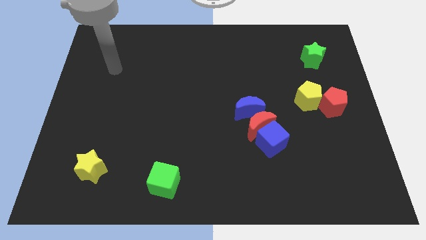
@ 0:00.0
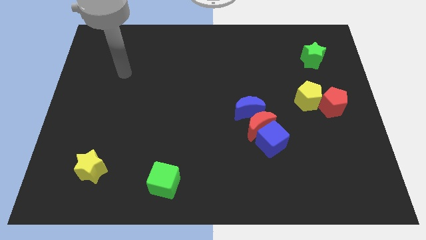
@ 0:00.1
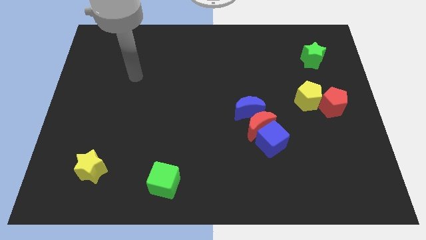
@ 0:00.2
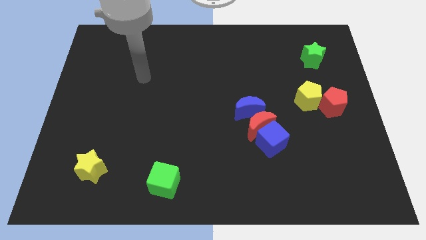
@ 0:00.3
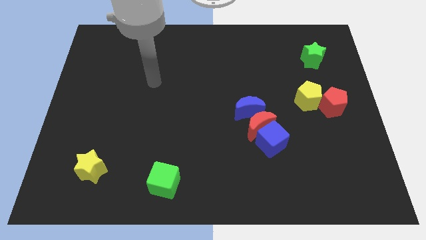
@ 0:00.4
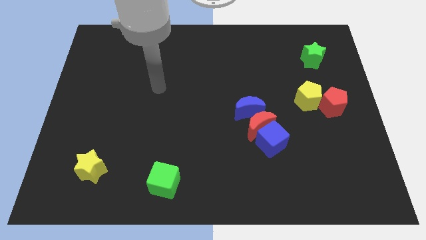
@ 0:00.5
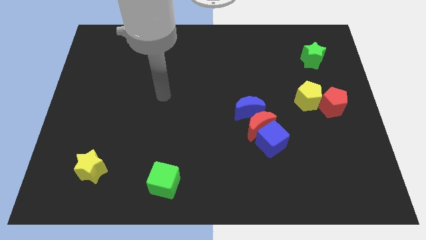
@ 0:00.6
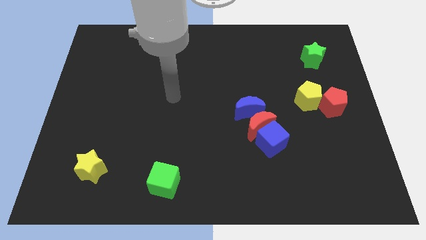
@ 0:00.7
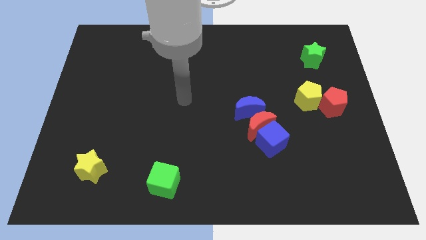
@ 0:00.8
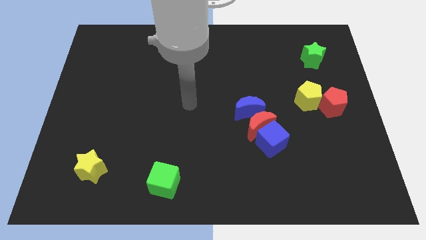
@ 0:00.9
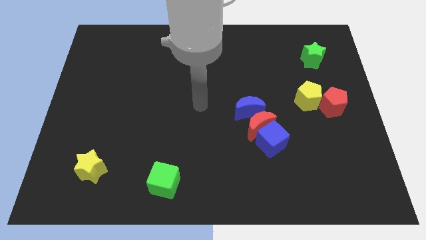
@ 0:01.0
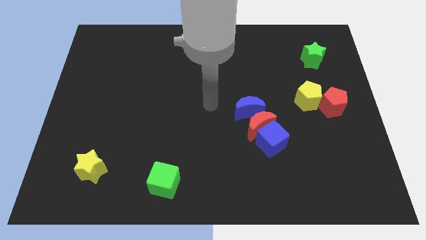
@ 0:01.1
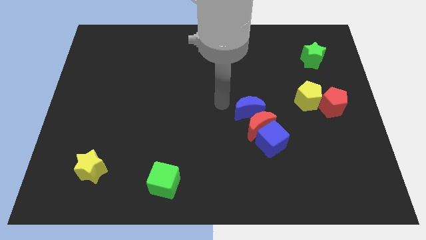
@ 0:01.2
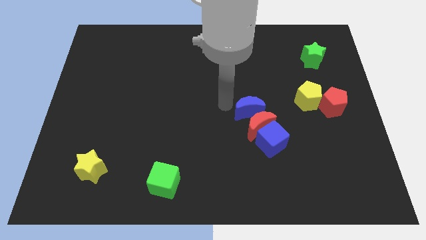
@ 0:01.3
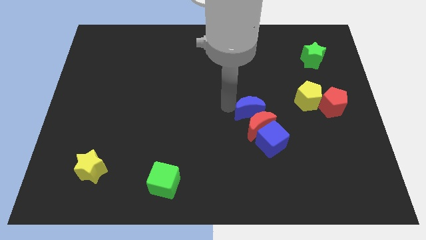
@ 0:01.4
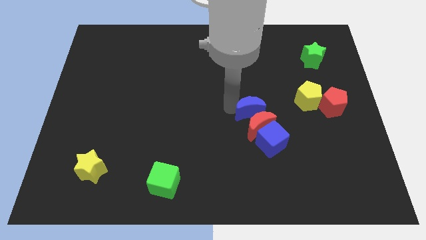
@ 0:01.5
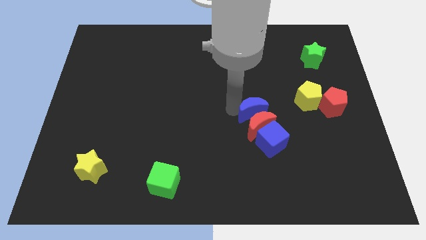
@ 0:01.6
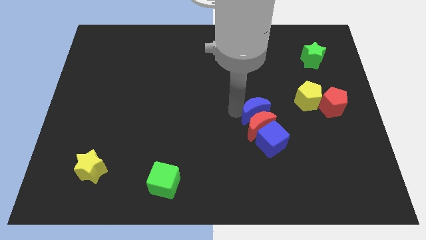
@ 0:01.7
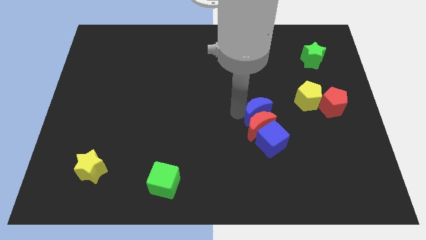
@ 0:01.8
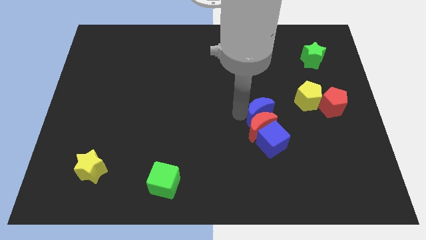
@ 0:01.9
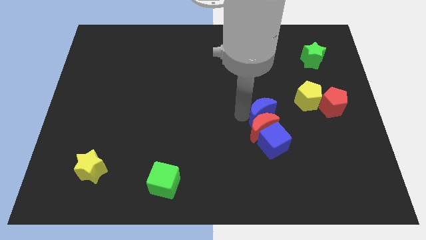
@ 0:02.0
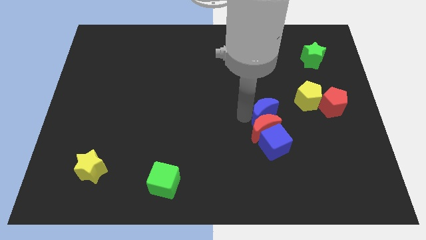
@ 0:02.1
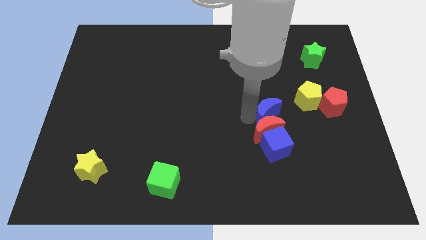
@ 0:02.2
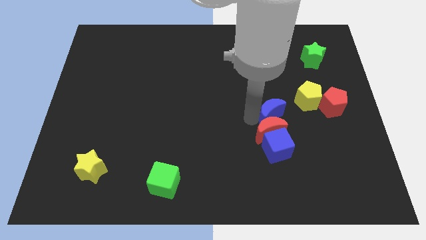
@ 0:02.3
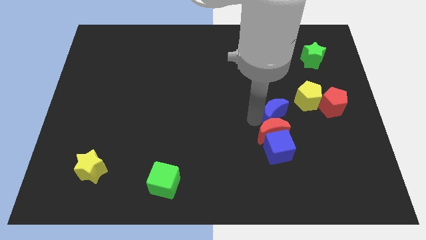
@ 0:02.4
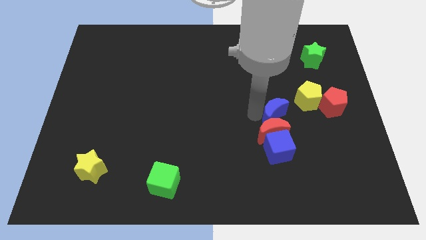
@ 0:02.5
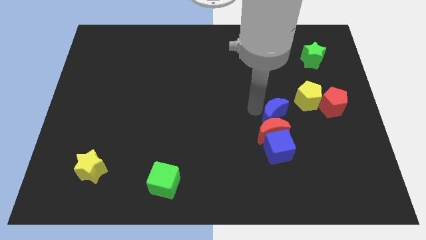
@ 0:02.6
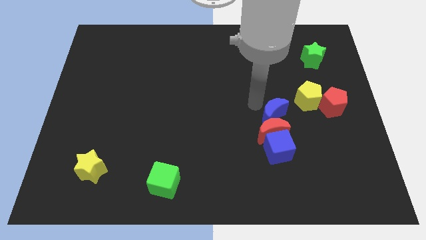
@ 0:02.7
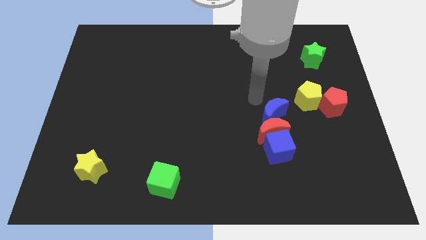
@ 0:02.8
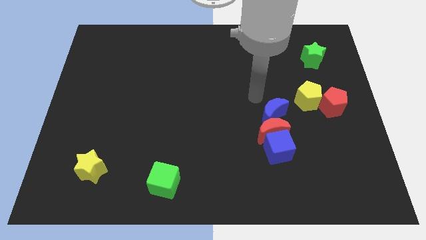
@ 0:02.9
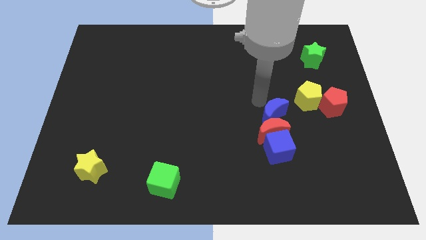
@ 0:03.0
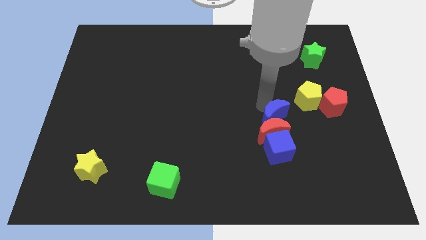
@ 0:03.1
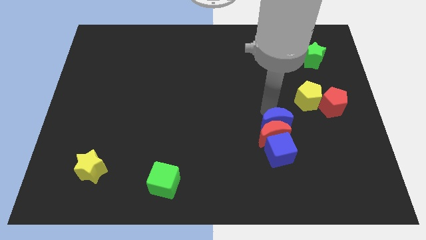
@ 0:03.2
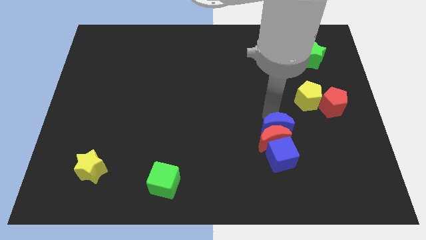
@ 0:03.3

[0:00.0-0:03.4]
push the blue moon a little bit downwards and then right

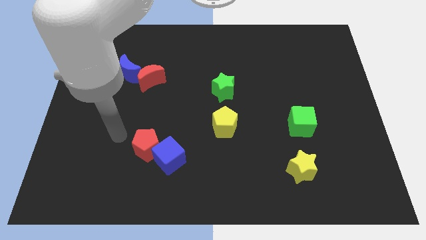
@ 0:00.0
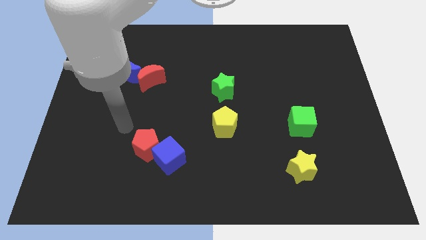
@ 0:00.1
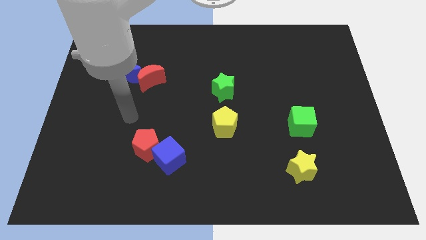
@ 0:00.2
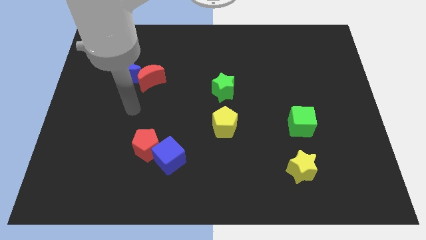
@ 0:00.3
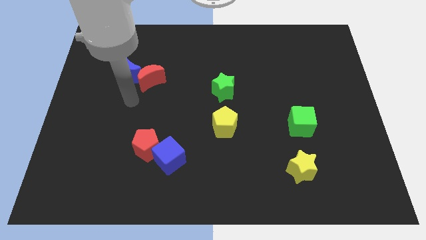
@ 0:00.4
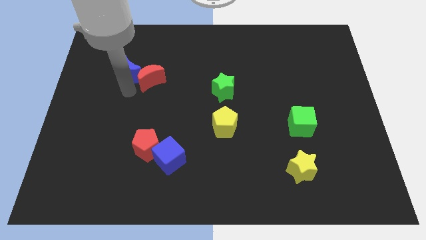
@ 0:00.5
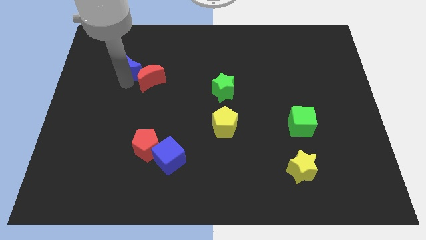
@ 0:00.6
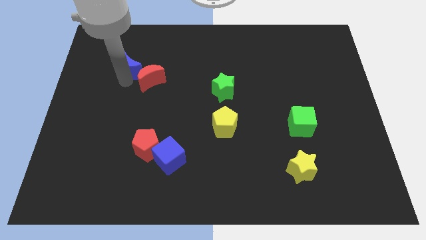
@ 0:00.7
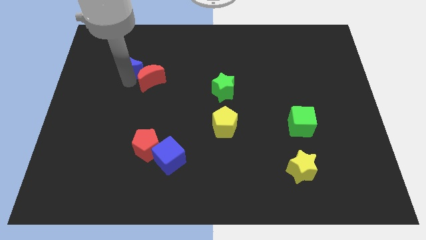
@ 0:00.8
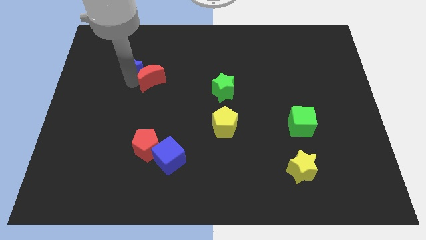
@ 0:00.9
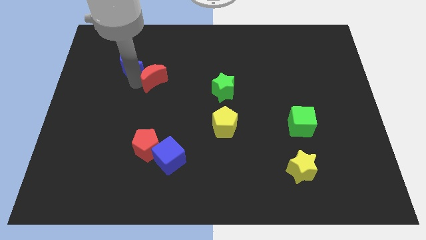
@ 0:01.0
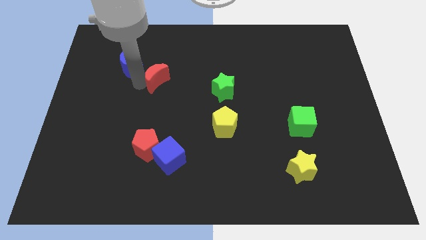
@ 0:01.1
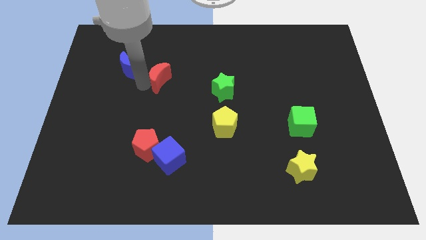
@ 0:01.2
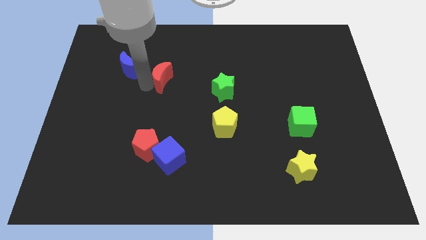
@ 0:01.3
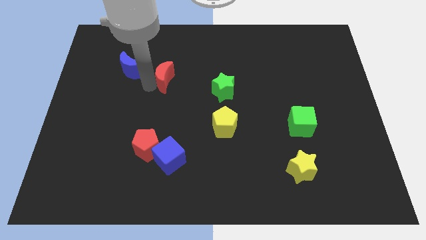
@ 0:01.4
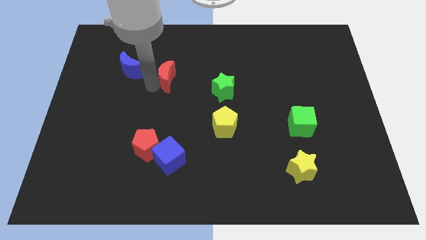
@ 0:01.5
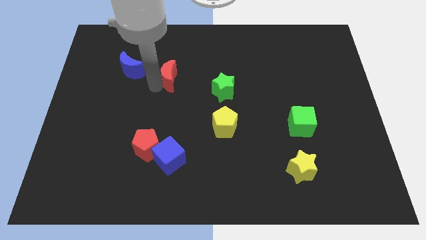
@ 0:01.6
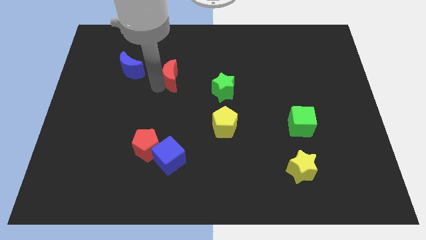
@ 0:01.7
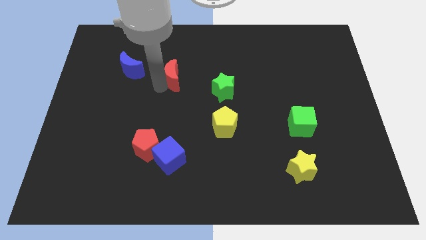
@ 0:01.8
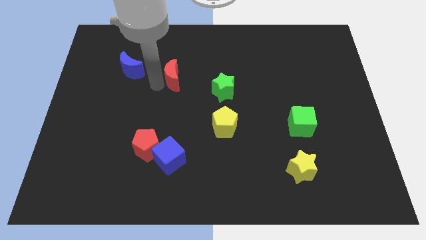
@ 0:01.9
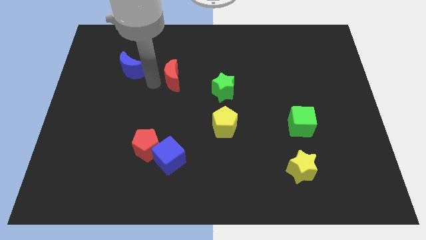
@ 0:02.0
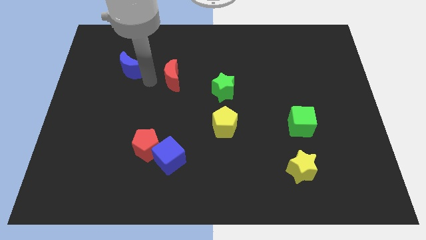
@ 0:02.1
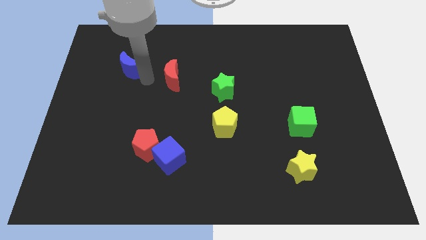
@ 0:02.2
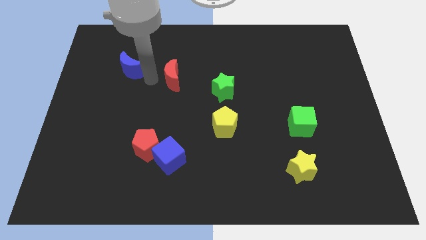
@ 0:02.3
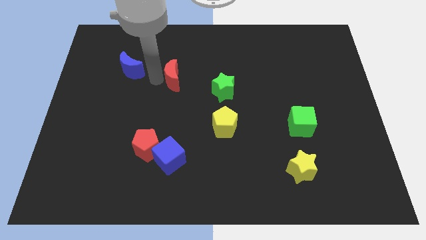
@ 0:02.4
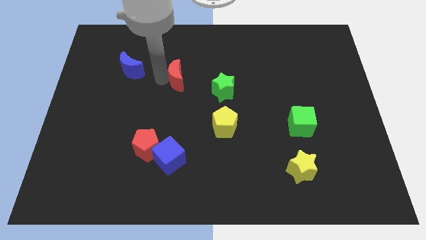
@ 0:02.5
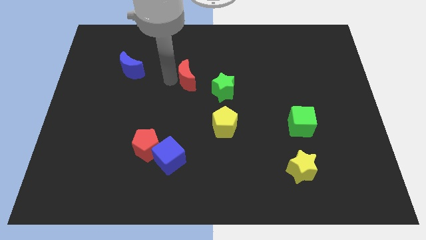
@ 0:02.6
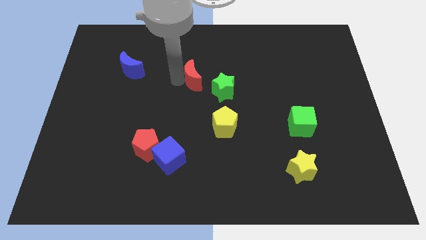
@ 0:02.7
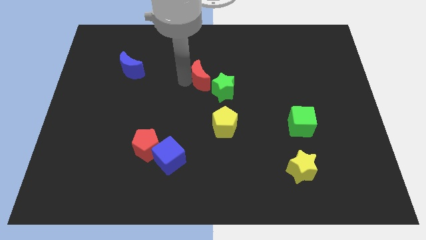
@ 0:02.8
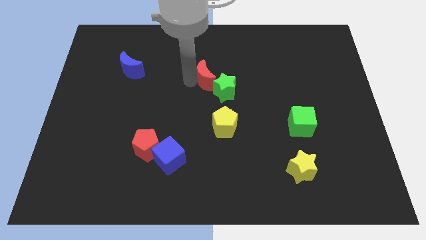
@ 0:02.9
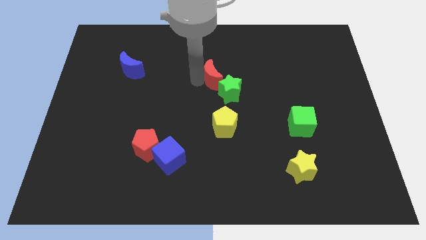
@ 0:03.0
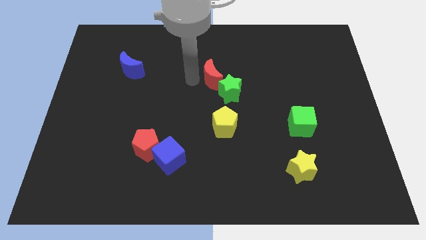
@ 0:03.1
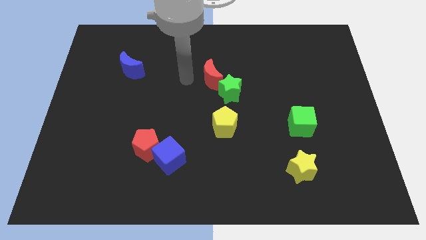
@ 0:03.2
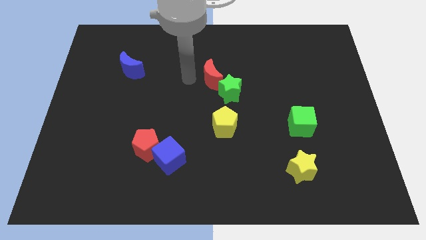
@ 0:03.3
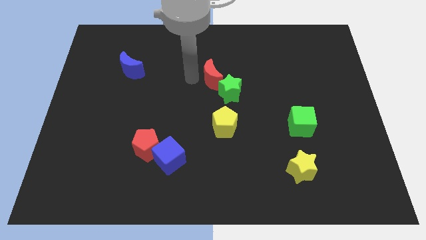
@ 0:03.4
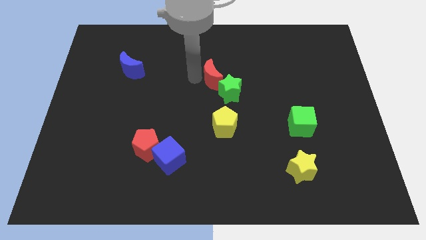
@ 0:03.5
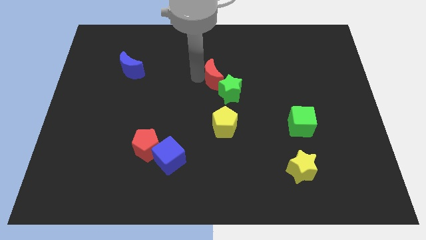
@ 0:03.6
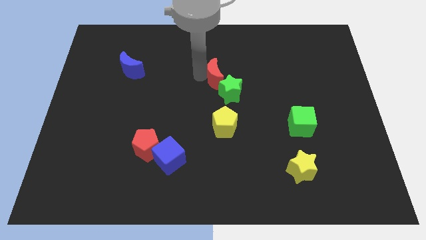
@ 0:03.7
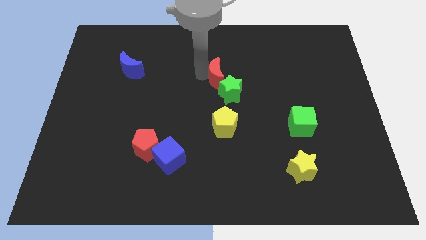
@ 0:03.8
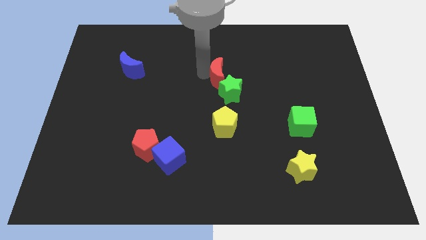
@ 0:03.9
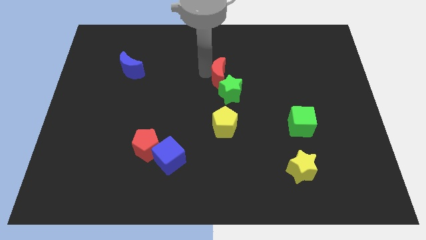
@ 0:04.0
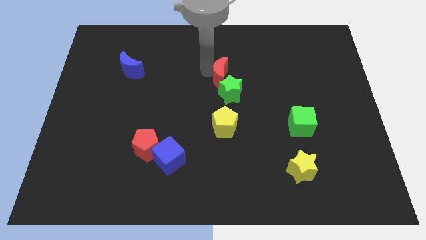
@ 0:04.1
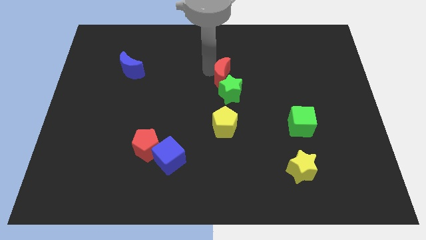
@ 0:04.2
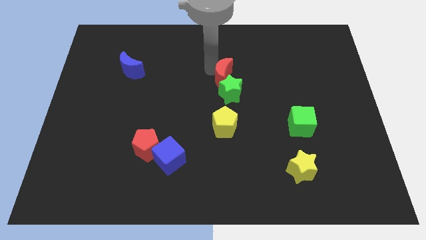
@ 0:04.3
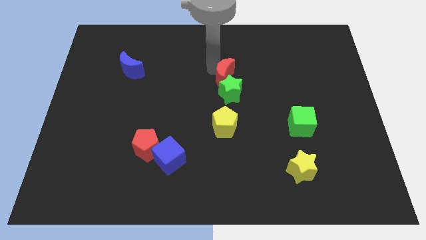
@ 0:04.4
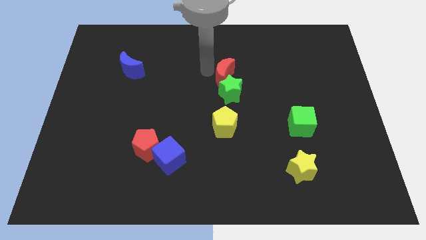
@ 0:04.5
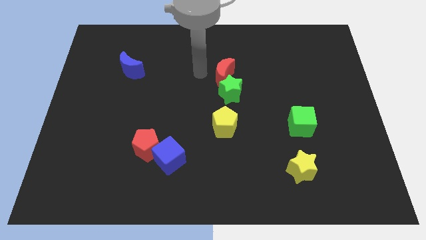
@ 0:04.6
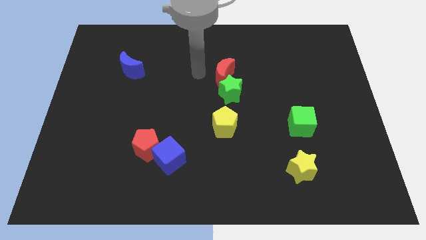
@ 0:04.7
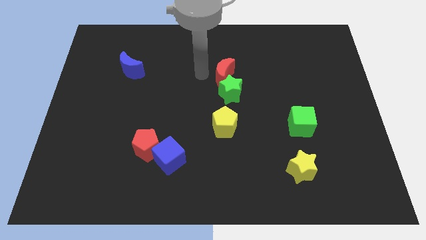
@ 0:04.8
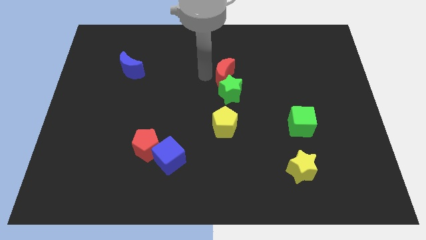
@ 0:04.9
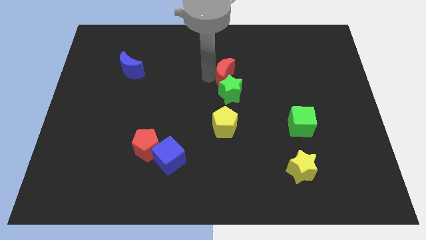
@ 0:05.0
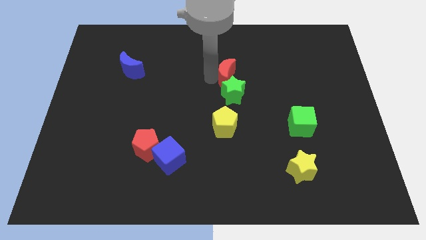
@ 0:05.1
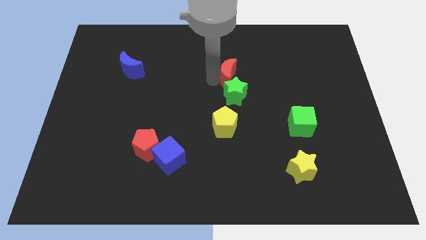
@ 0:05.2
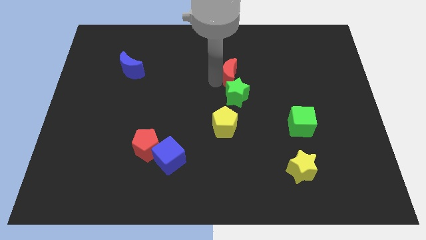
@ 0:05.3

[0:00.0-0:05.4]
push the red moon to the right
